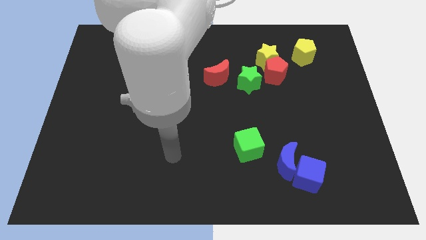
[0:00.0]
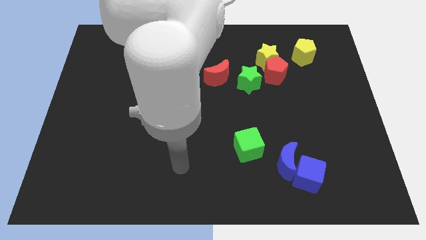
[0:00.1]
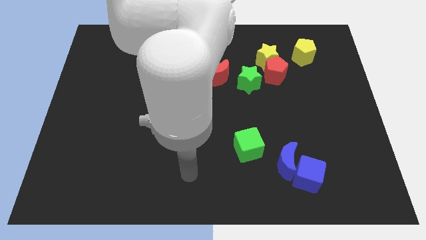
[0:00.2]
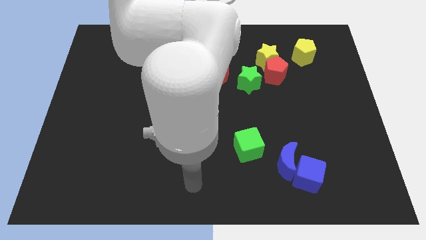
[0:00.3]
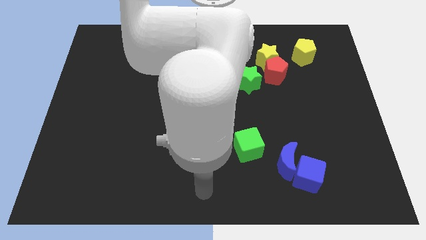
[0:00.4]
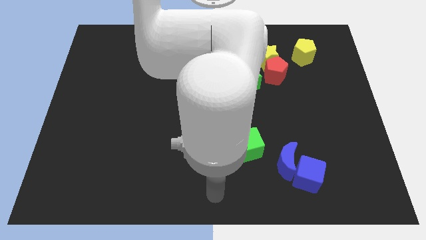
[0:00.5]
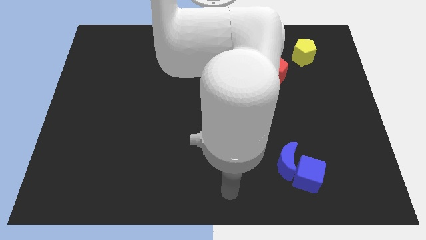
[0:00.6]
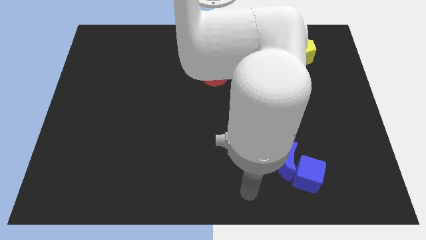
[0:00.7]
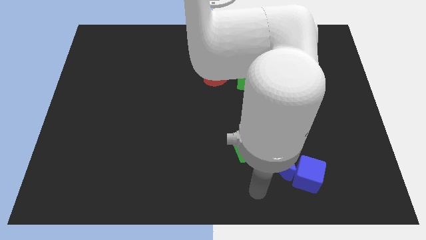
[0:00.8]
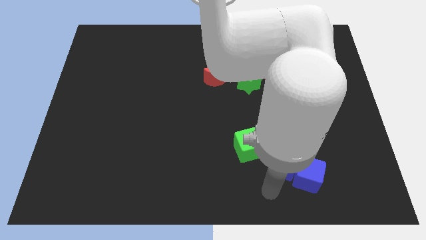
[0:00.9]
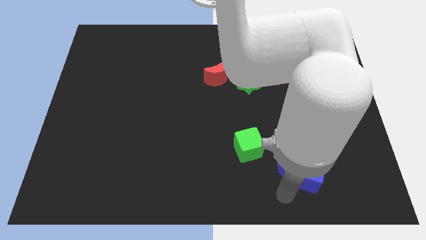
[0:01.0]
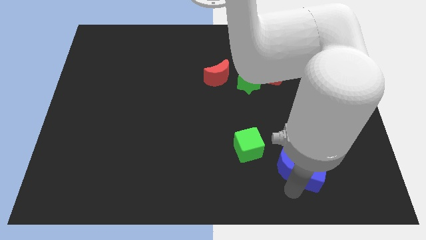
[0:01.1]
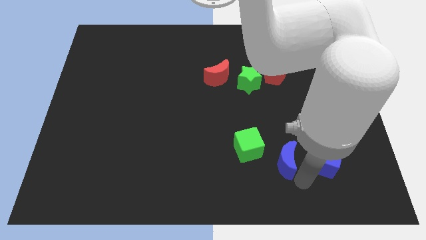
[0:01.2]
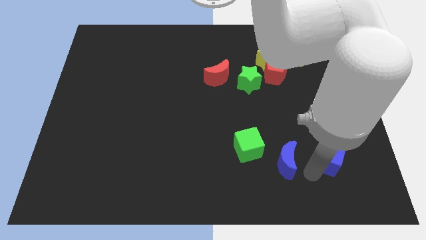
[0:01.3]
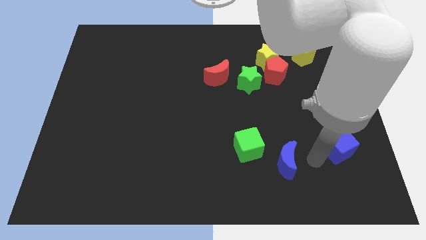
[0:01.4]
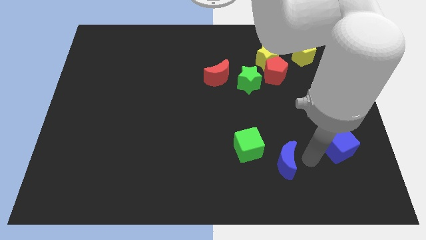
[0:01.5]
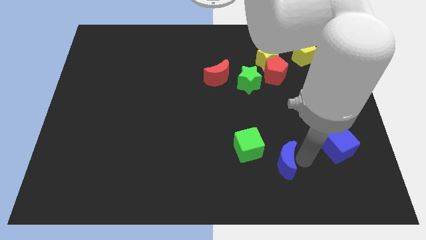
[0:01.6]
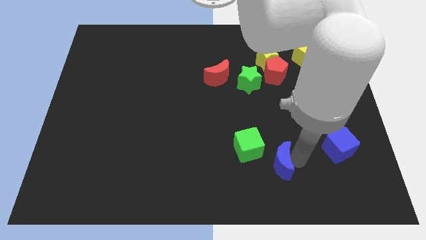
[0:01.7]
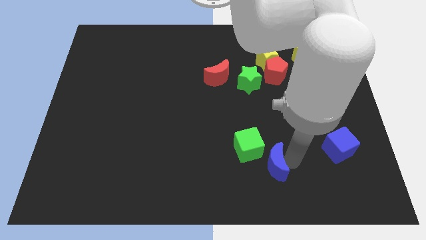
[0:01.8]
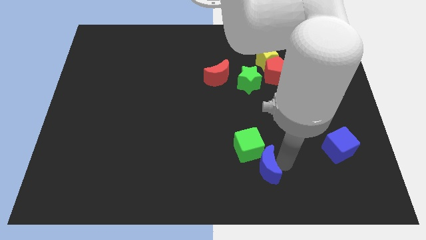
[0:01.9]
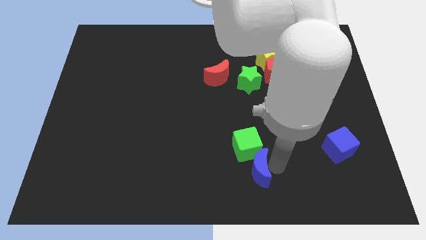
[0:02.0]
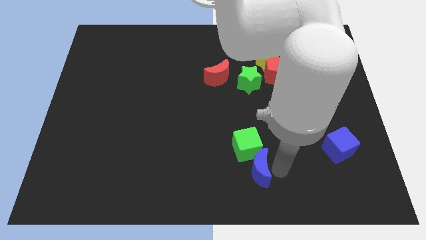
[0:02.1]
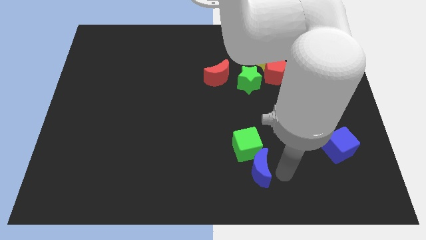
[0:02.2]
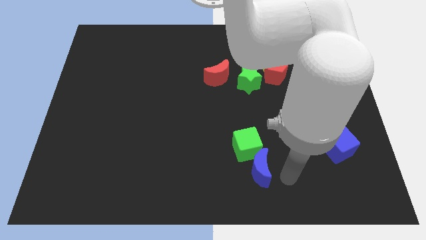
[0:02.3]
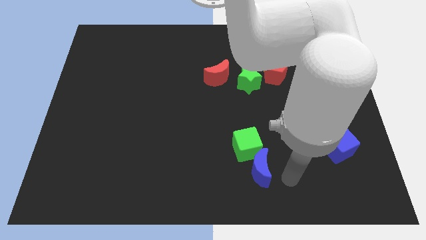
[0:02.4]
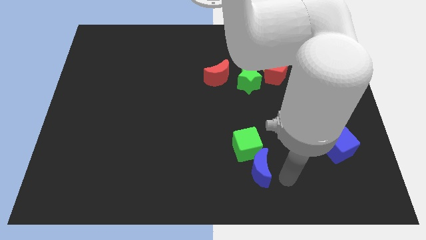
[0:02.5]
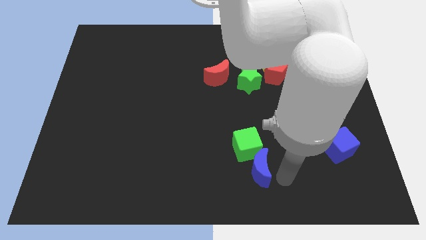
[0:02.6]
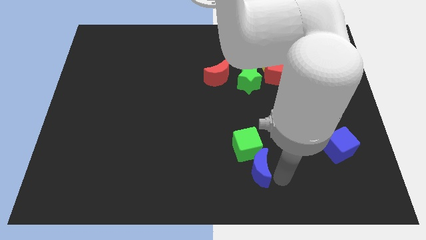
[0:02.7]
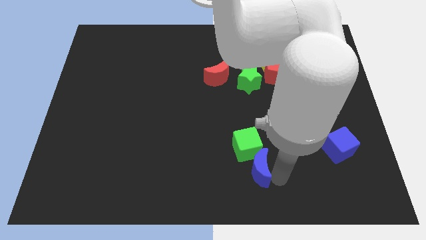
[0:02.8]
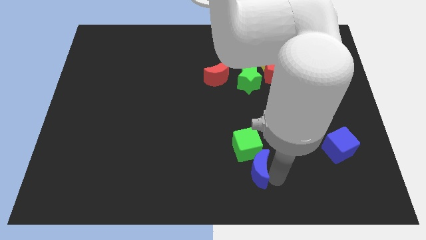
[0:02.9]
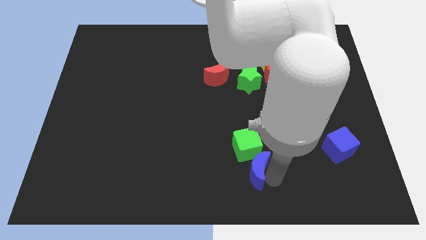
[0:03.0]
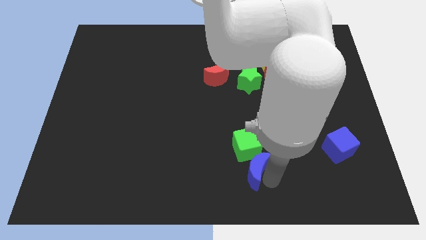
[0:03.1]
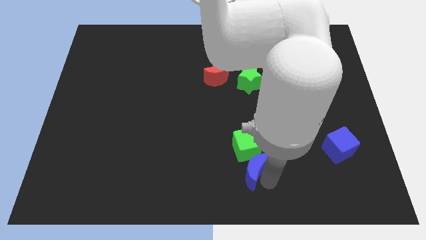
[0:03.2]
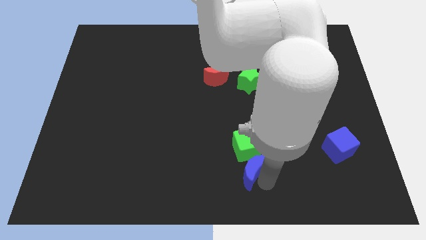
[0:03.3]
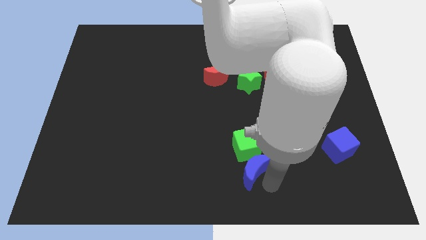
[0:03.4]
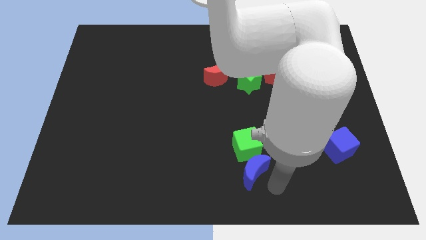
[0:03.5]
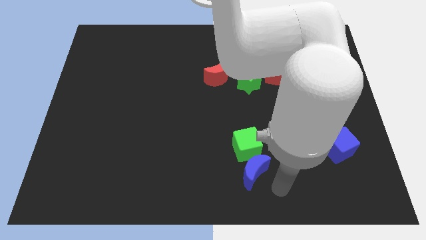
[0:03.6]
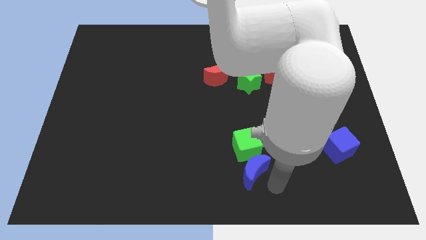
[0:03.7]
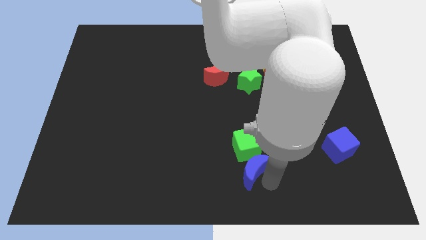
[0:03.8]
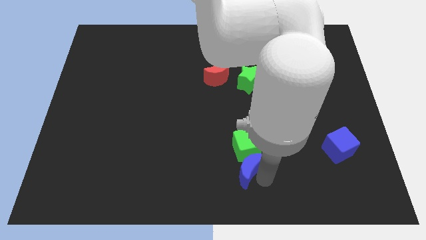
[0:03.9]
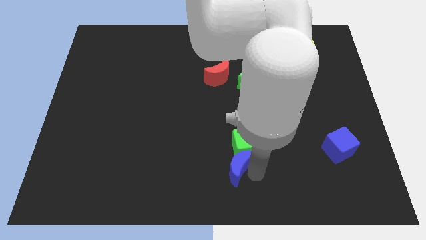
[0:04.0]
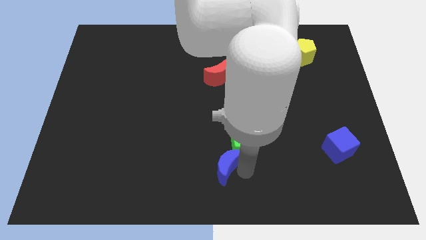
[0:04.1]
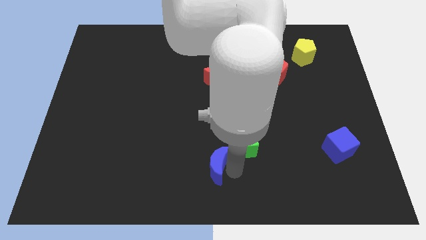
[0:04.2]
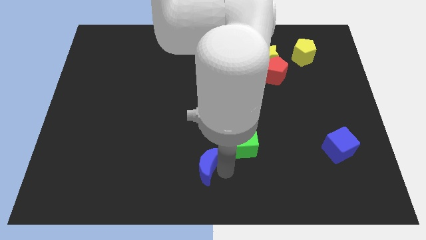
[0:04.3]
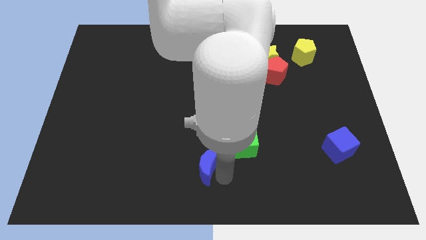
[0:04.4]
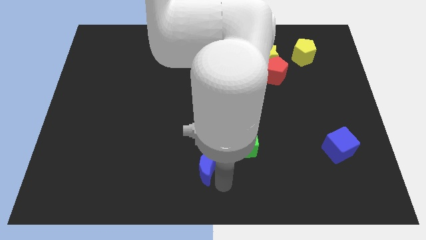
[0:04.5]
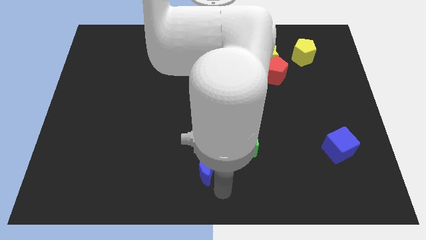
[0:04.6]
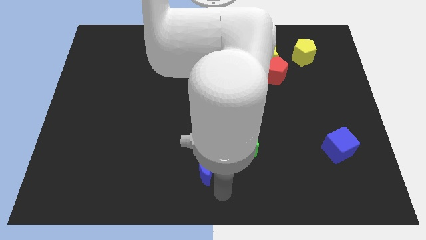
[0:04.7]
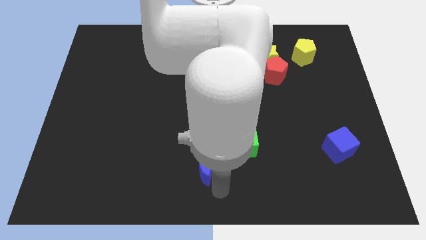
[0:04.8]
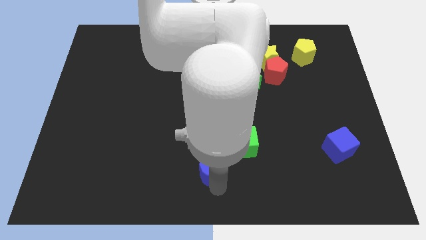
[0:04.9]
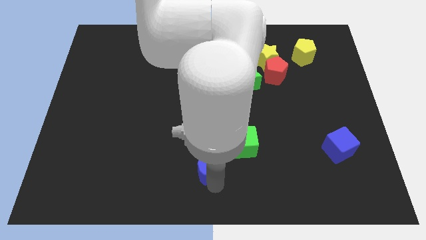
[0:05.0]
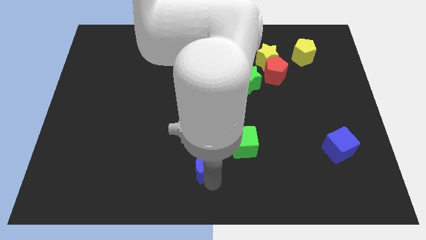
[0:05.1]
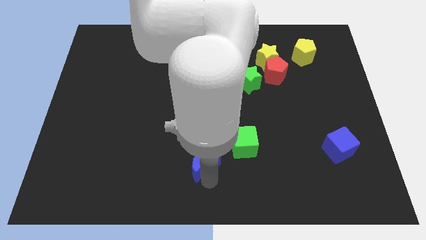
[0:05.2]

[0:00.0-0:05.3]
move the blue moon just left of the green cube

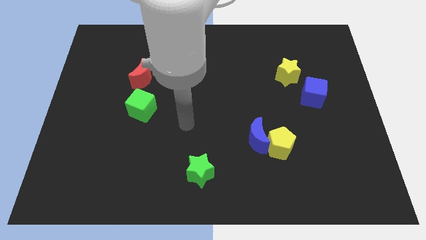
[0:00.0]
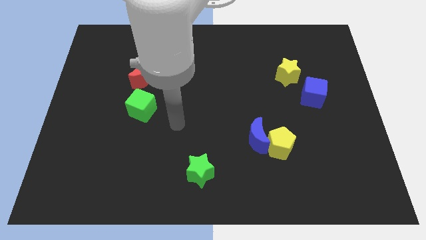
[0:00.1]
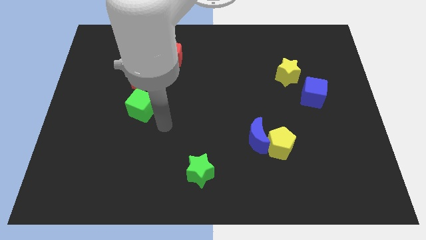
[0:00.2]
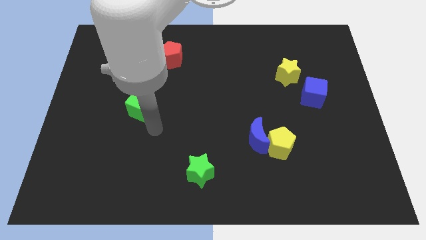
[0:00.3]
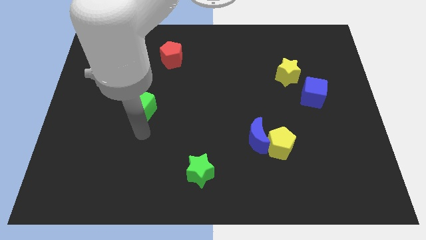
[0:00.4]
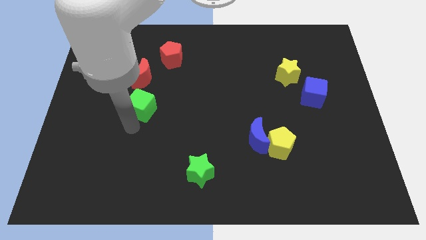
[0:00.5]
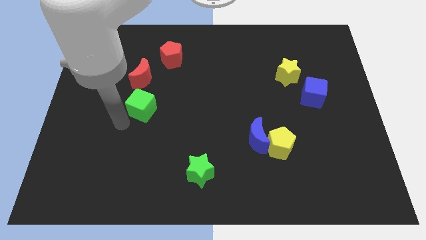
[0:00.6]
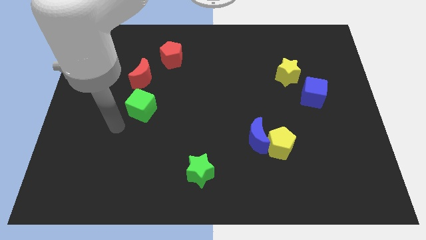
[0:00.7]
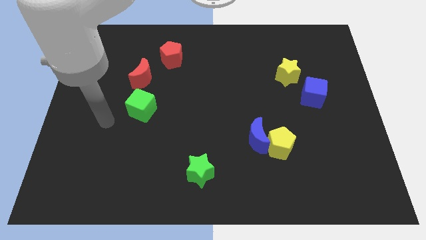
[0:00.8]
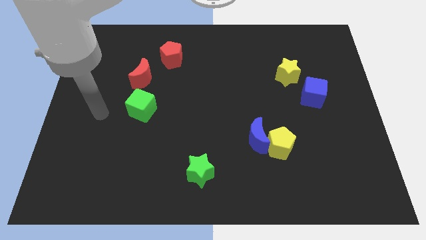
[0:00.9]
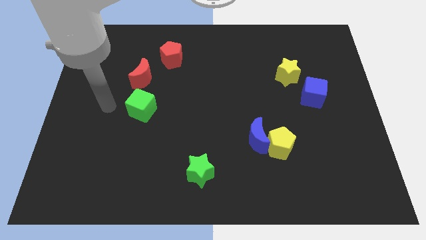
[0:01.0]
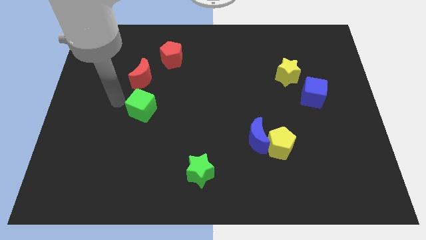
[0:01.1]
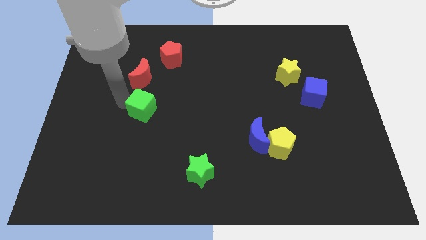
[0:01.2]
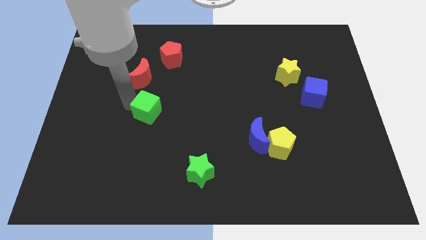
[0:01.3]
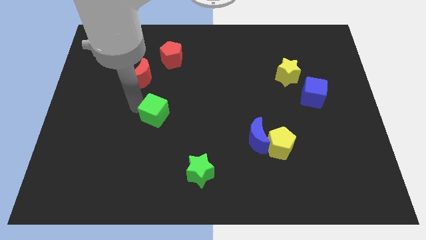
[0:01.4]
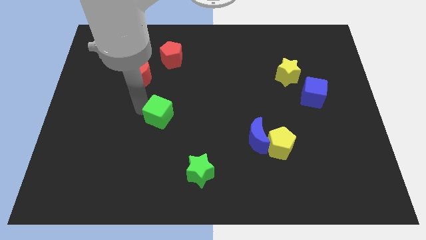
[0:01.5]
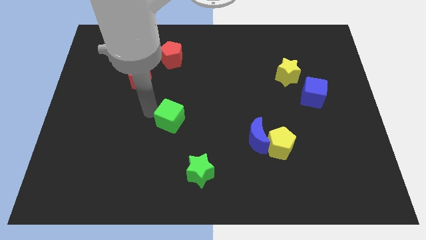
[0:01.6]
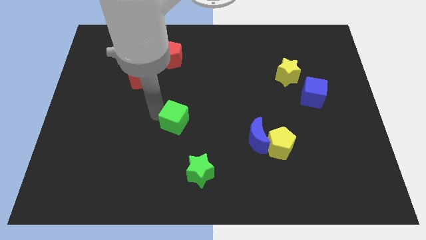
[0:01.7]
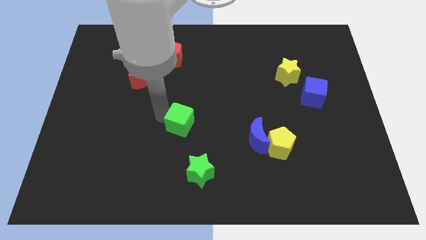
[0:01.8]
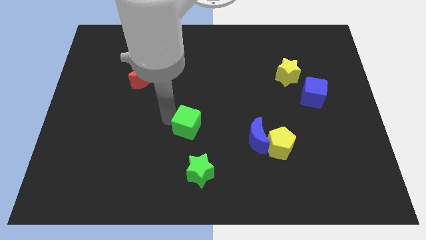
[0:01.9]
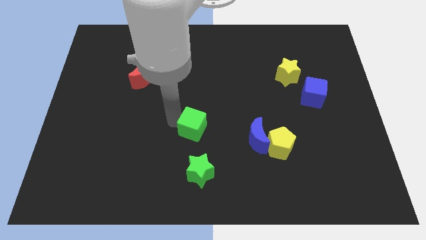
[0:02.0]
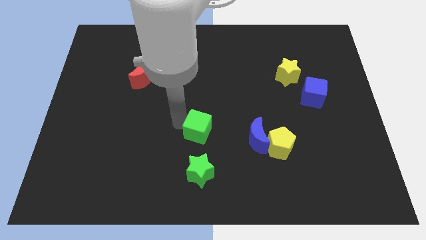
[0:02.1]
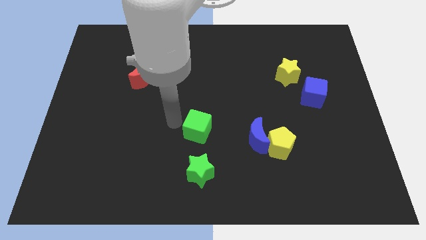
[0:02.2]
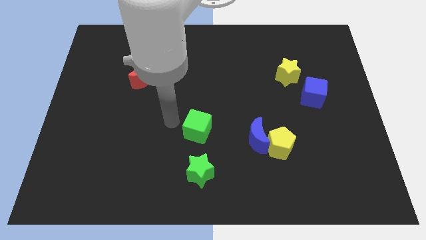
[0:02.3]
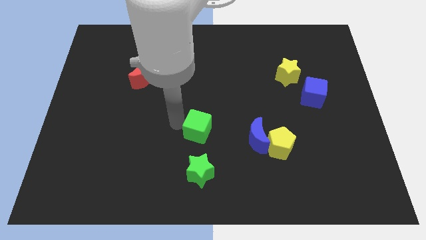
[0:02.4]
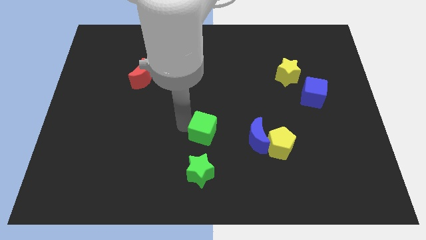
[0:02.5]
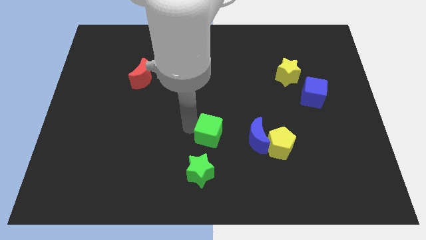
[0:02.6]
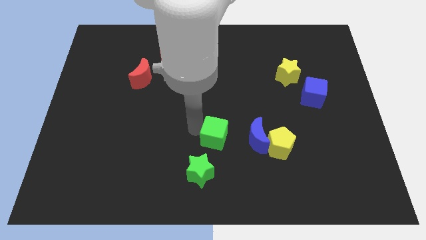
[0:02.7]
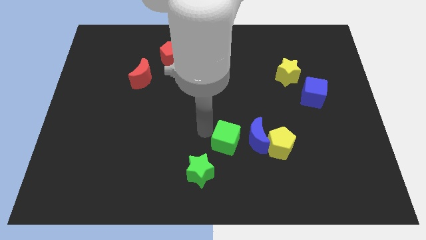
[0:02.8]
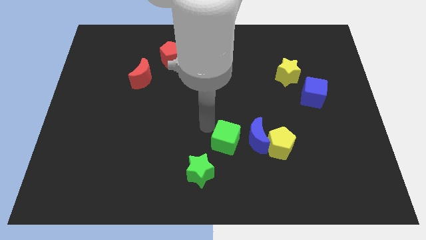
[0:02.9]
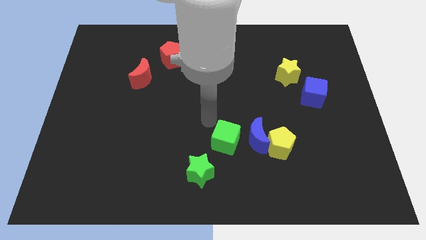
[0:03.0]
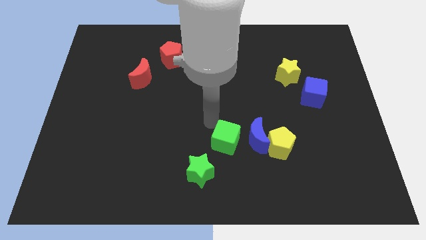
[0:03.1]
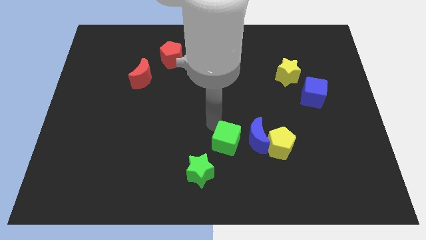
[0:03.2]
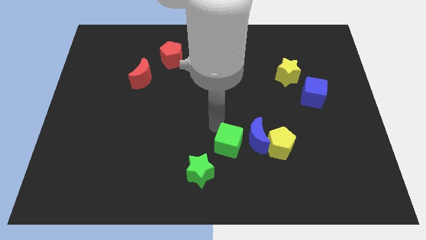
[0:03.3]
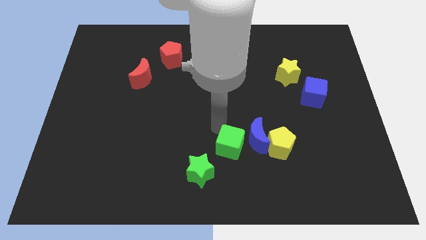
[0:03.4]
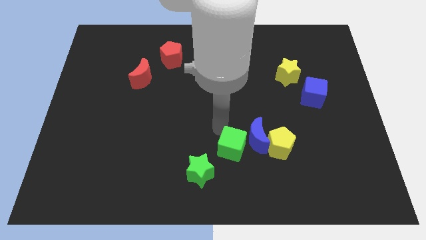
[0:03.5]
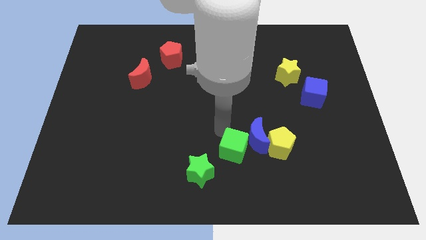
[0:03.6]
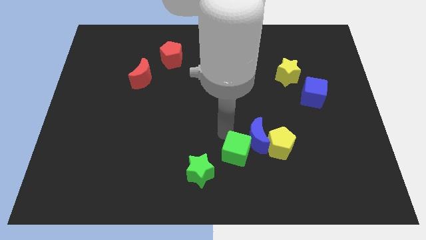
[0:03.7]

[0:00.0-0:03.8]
slide the green cube to the bottom of the blue moon
